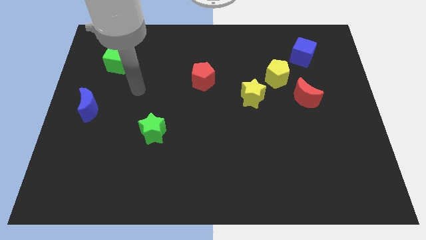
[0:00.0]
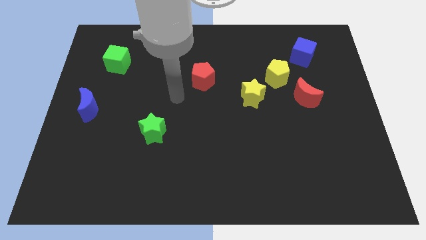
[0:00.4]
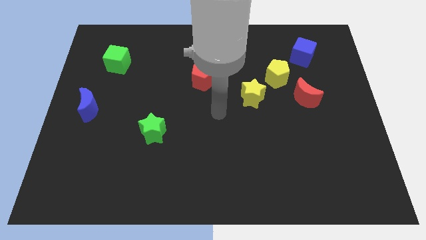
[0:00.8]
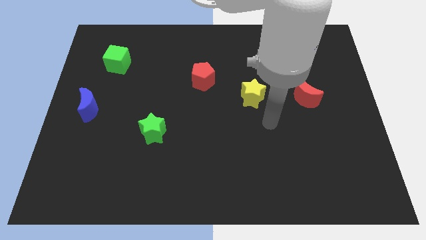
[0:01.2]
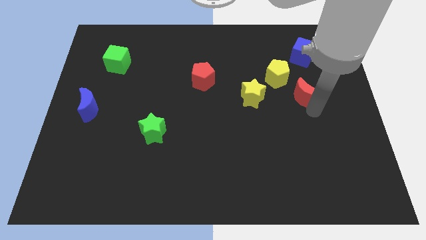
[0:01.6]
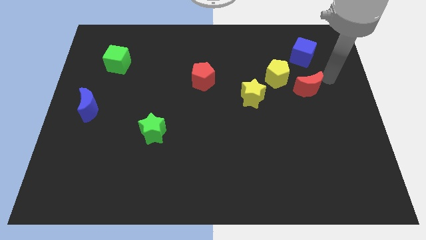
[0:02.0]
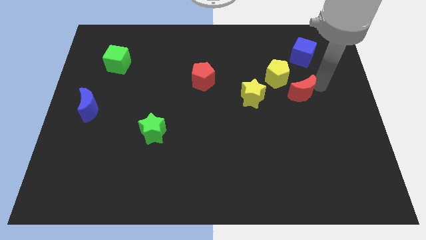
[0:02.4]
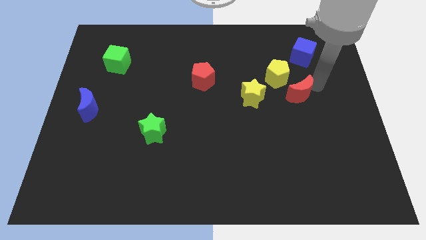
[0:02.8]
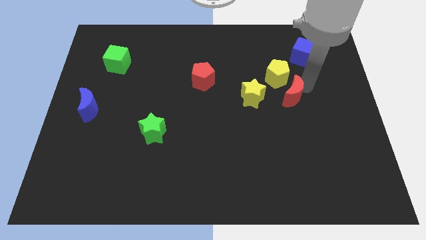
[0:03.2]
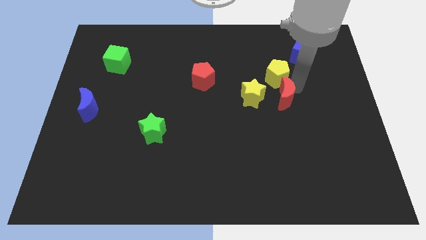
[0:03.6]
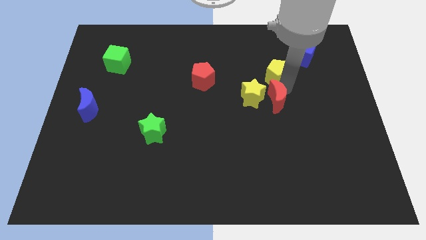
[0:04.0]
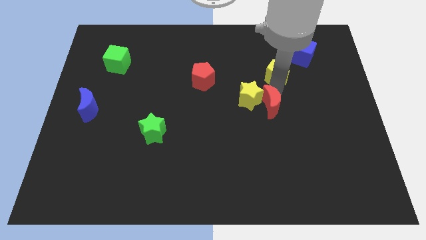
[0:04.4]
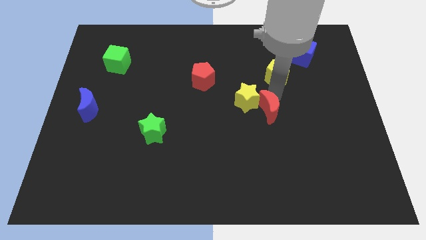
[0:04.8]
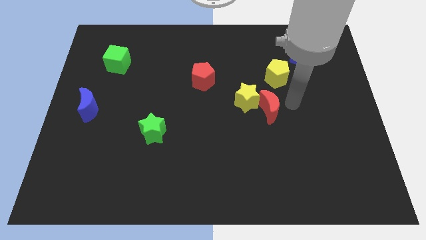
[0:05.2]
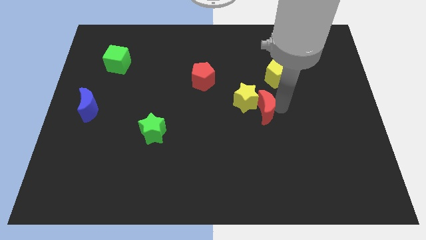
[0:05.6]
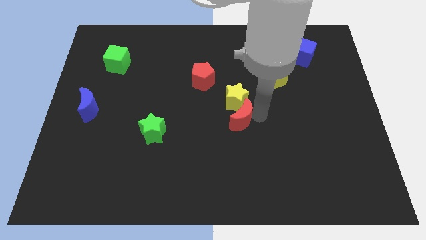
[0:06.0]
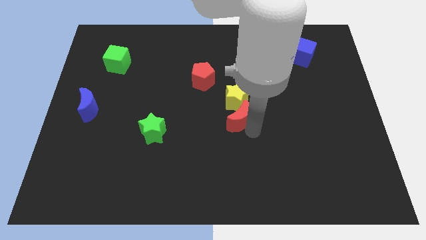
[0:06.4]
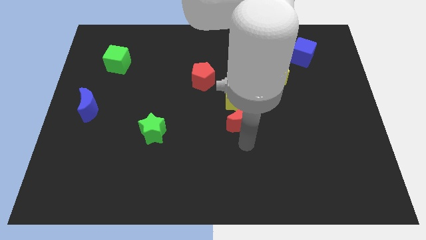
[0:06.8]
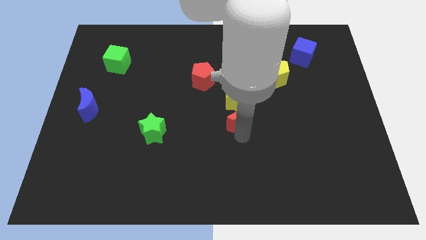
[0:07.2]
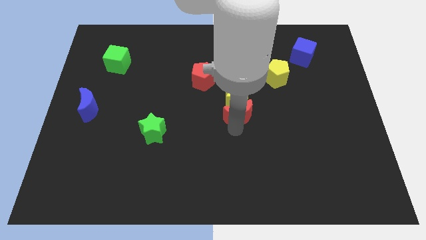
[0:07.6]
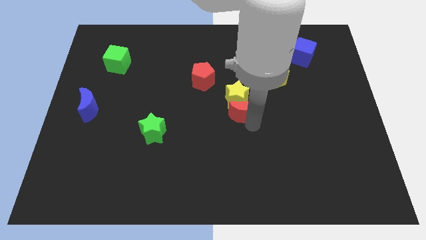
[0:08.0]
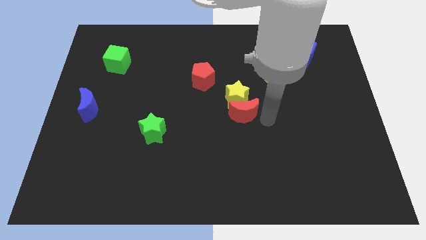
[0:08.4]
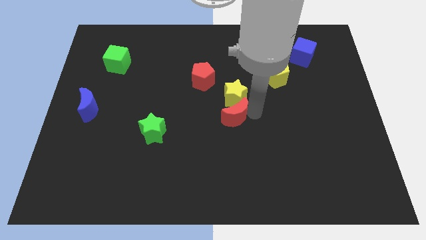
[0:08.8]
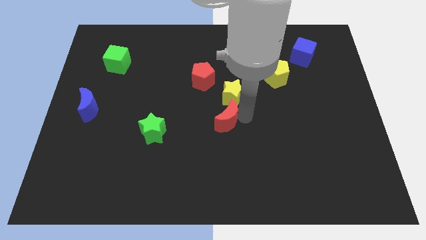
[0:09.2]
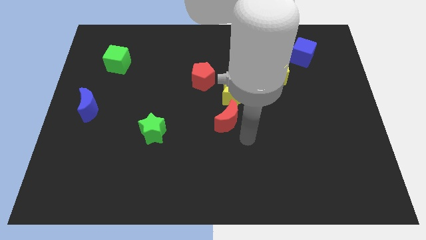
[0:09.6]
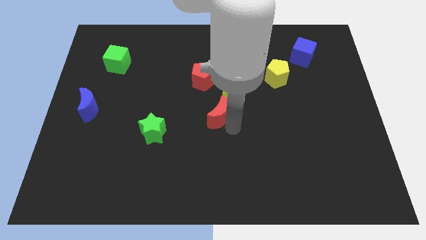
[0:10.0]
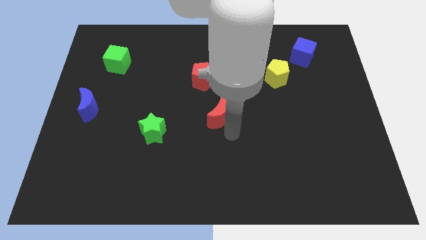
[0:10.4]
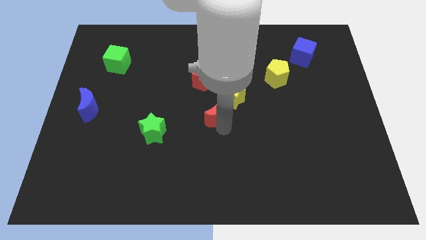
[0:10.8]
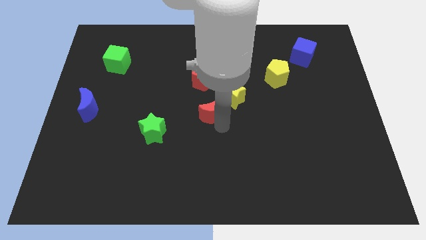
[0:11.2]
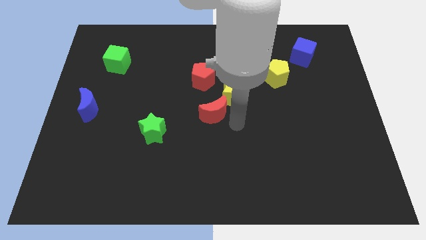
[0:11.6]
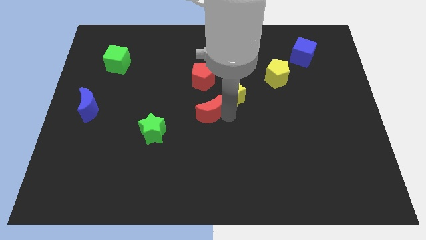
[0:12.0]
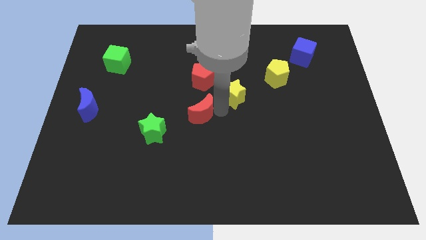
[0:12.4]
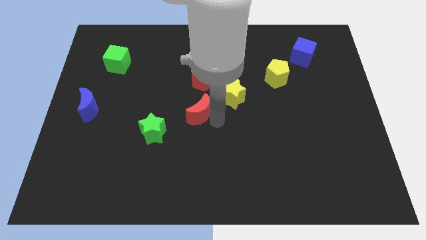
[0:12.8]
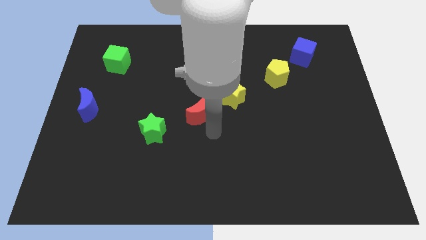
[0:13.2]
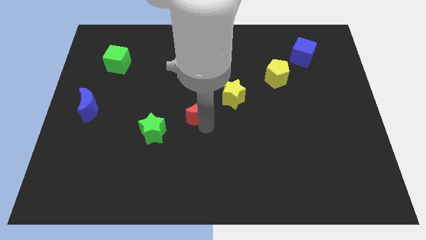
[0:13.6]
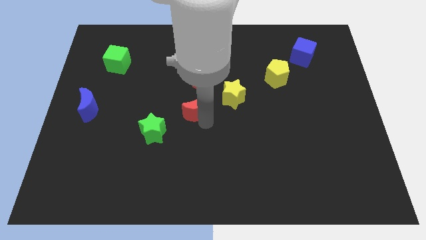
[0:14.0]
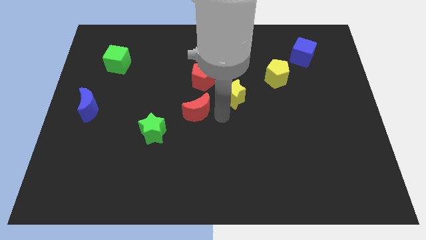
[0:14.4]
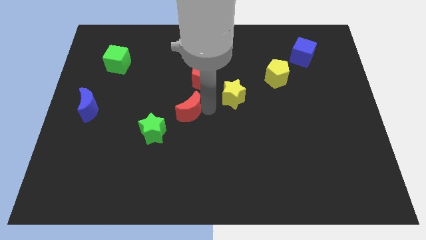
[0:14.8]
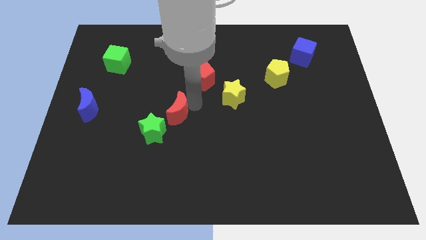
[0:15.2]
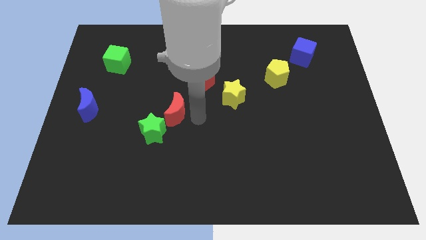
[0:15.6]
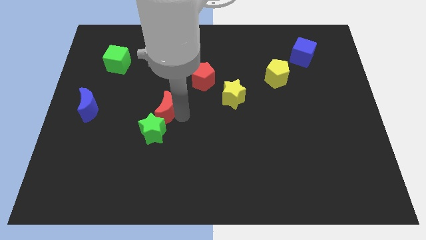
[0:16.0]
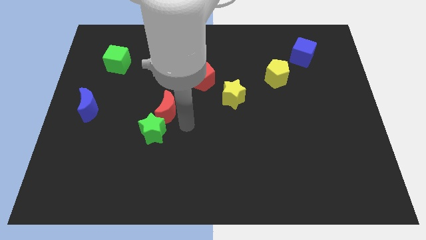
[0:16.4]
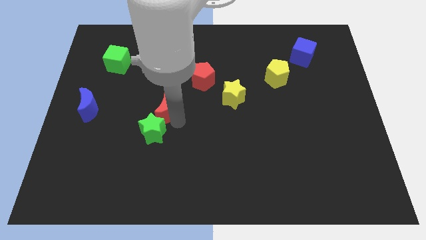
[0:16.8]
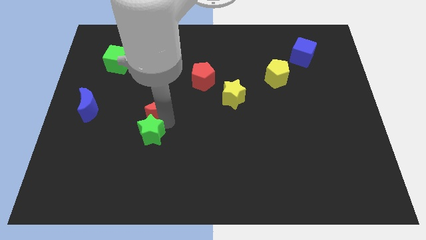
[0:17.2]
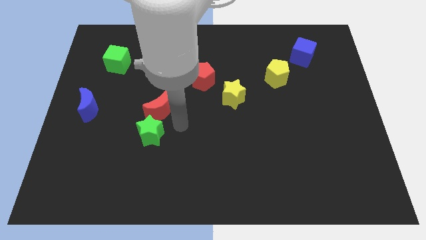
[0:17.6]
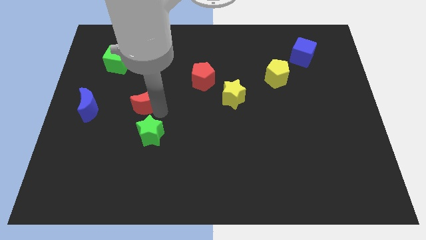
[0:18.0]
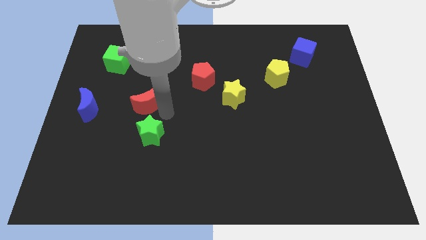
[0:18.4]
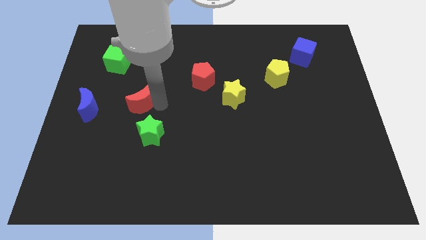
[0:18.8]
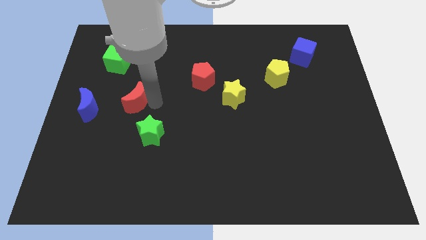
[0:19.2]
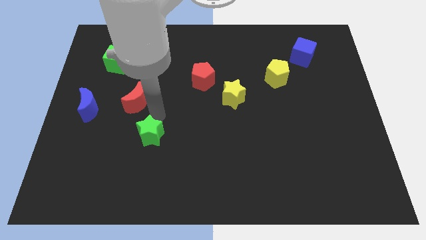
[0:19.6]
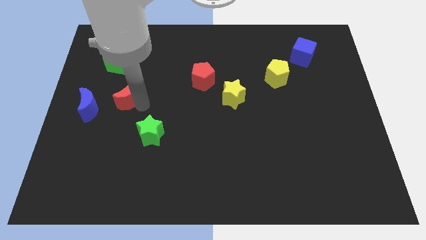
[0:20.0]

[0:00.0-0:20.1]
push the red moon below the green cube

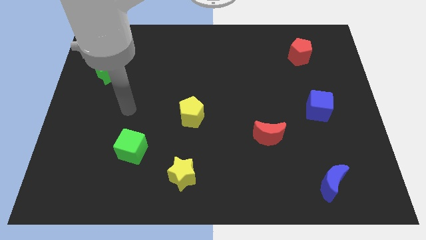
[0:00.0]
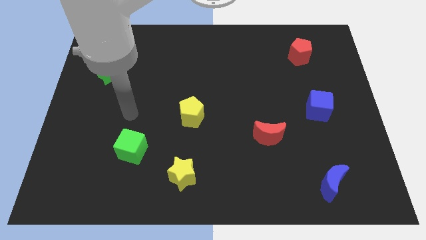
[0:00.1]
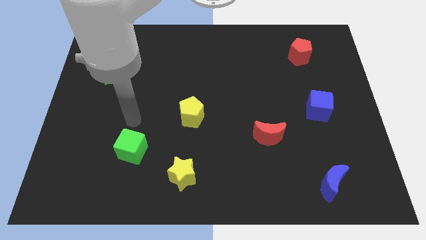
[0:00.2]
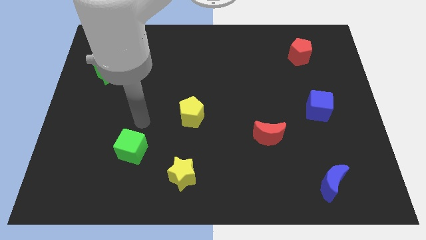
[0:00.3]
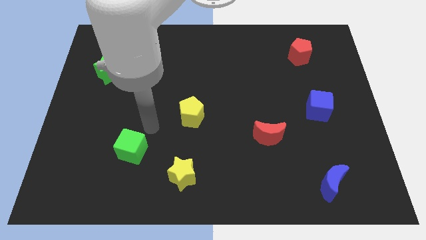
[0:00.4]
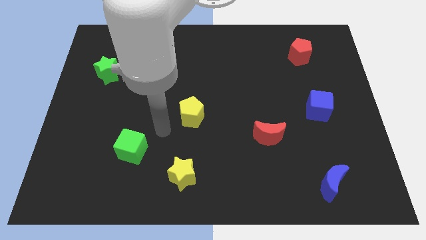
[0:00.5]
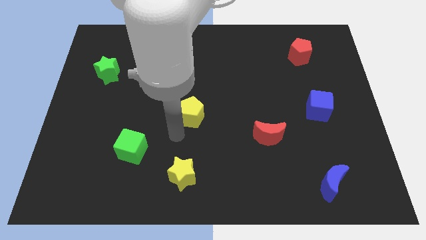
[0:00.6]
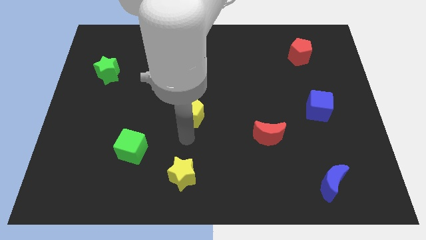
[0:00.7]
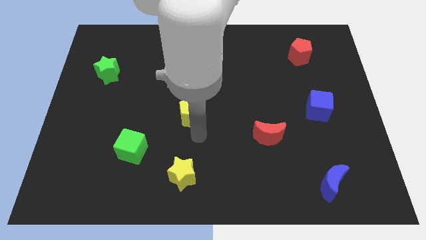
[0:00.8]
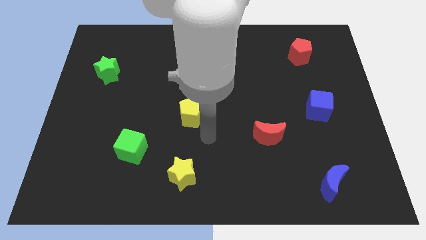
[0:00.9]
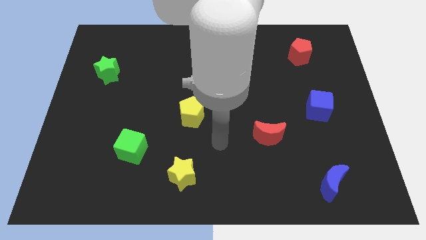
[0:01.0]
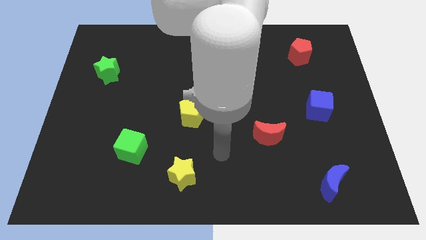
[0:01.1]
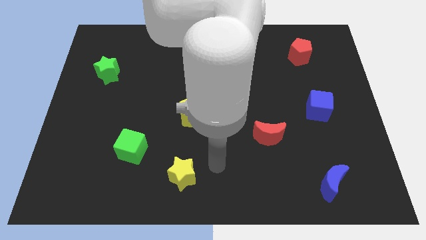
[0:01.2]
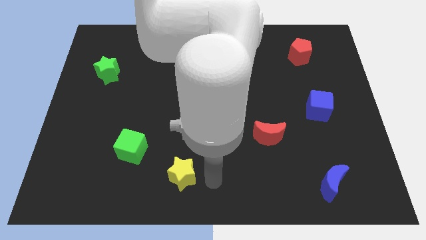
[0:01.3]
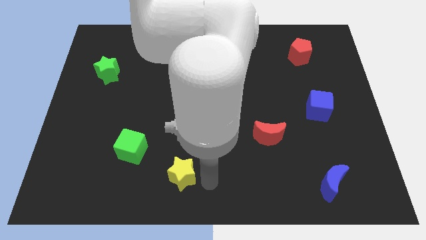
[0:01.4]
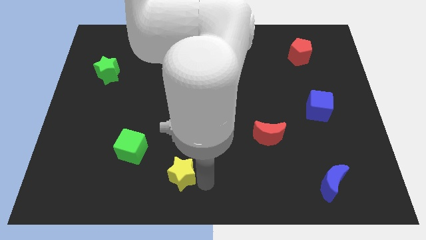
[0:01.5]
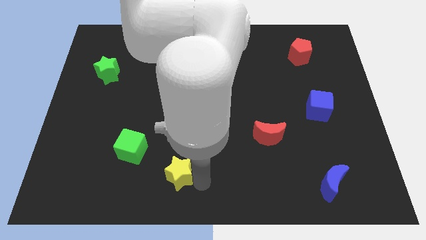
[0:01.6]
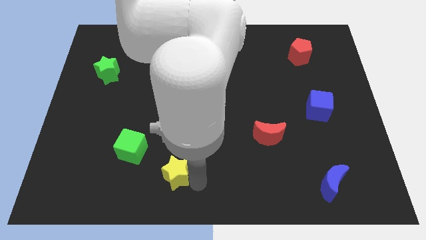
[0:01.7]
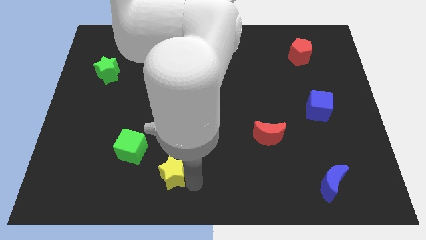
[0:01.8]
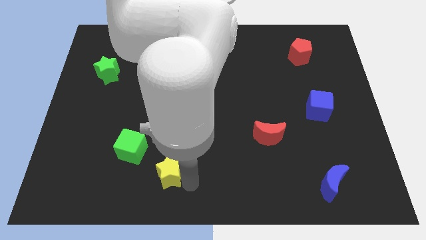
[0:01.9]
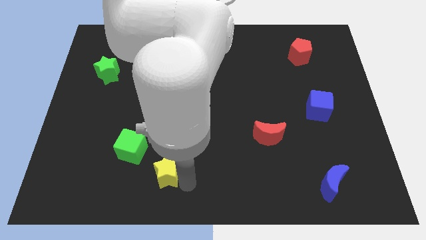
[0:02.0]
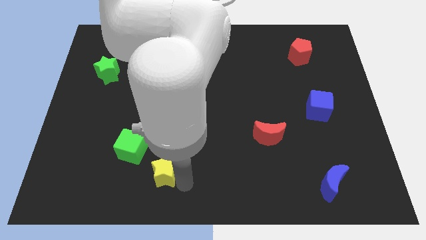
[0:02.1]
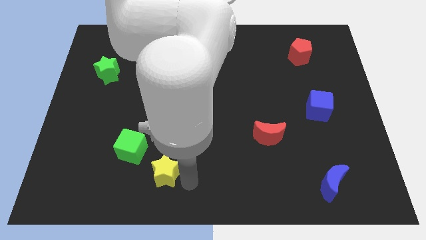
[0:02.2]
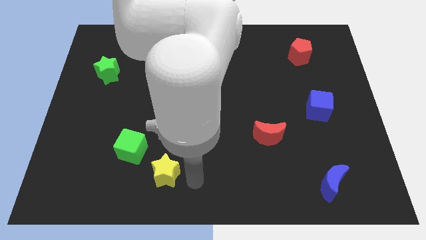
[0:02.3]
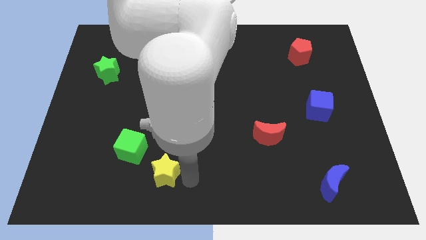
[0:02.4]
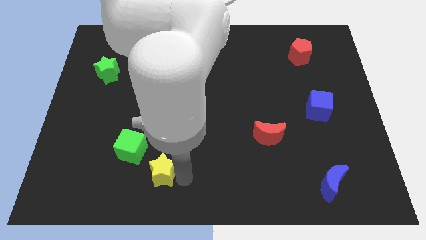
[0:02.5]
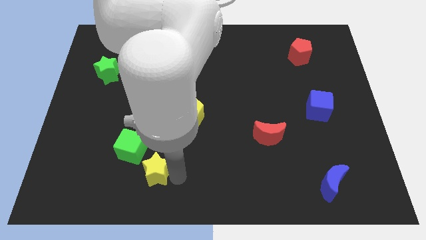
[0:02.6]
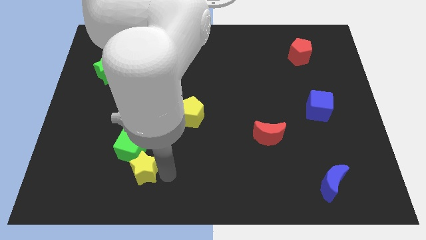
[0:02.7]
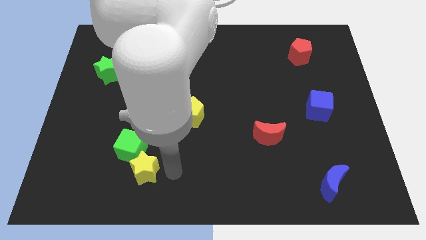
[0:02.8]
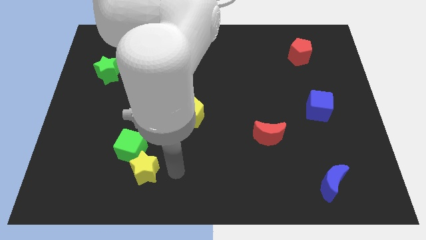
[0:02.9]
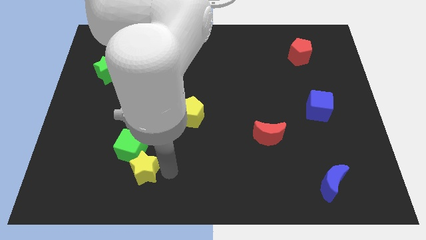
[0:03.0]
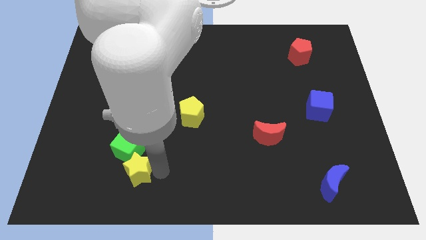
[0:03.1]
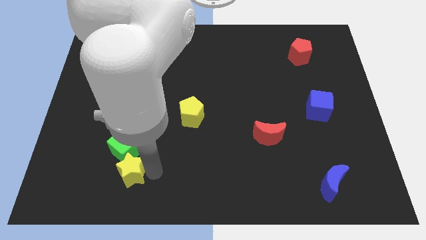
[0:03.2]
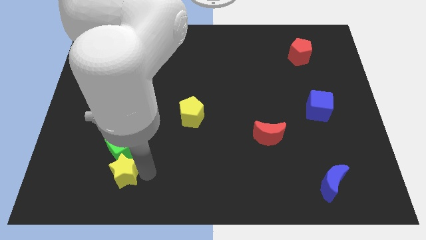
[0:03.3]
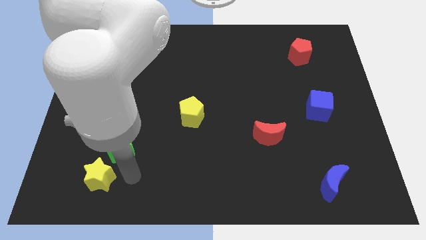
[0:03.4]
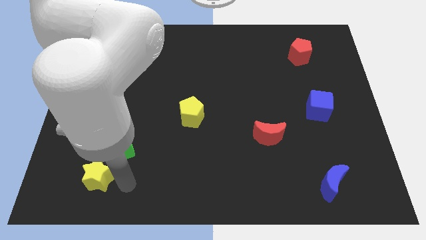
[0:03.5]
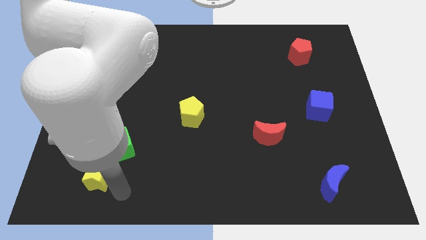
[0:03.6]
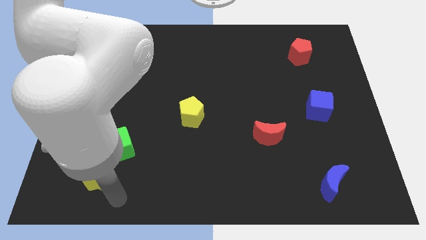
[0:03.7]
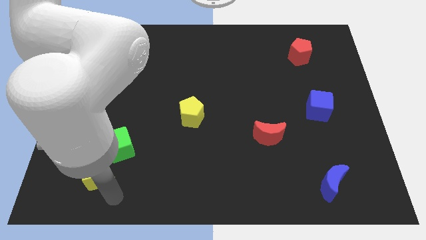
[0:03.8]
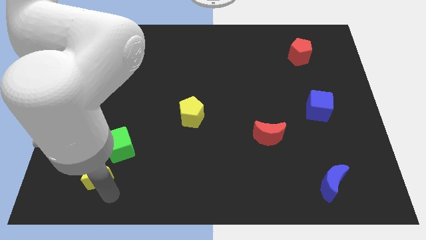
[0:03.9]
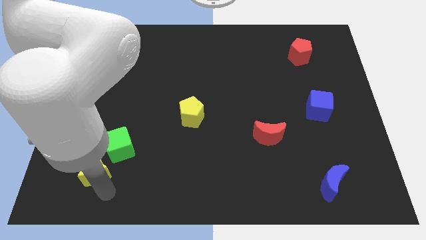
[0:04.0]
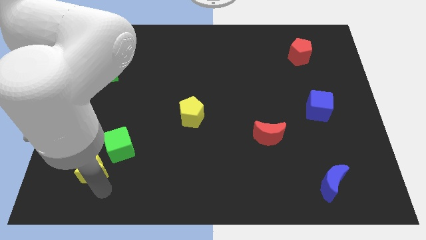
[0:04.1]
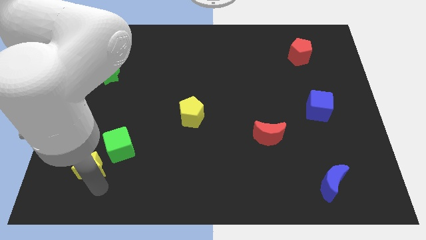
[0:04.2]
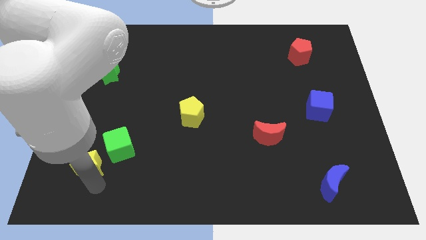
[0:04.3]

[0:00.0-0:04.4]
put the yellow star to the left side of the green cube
